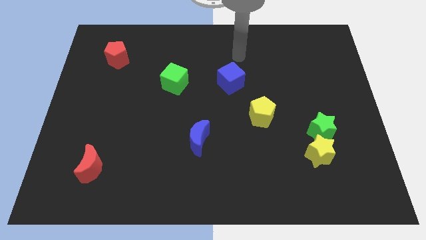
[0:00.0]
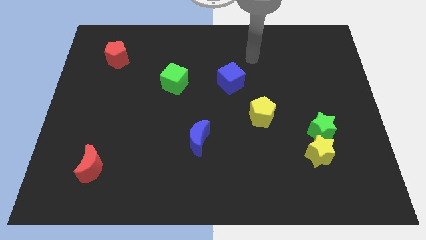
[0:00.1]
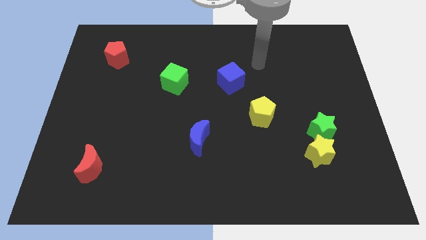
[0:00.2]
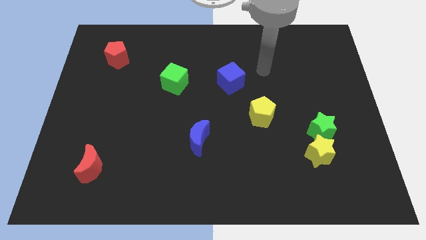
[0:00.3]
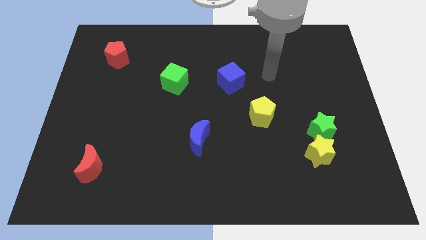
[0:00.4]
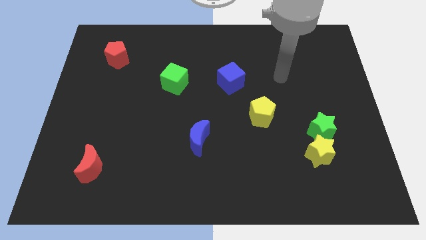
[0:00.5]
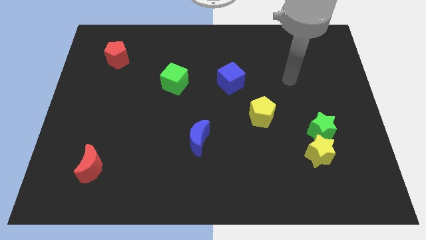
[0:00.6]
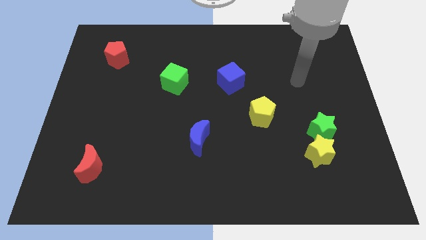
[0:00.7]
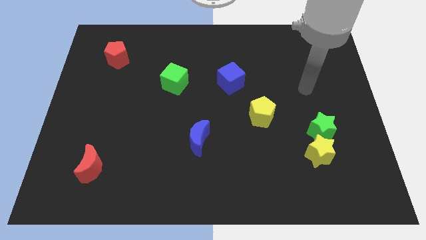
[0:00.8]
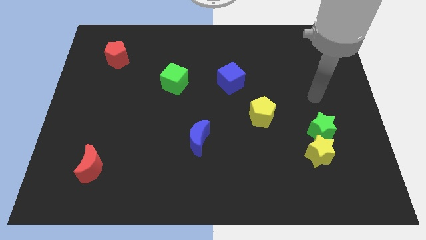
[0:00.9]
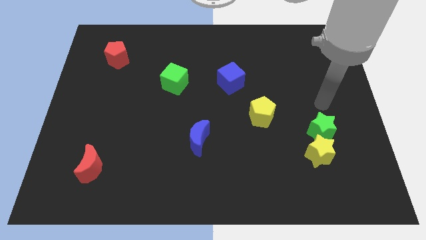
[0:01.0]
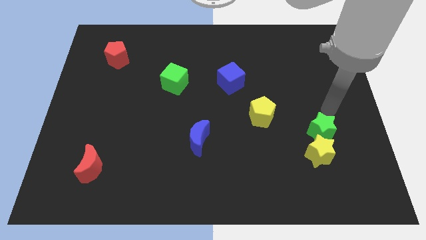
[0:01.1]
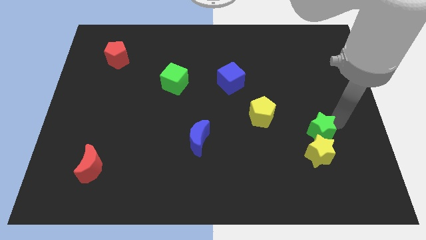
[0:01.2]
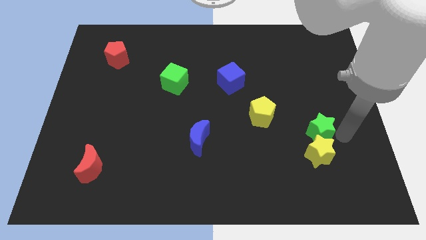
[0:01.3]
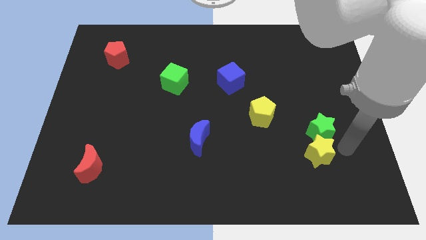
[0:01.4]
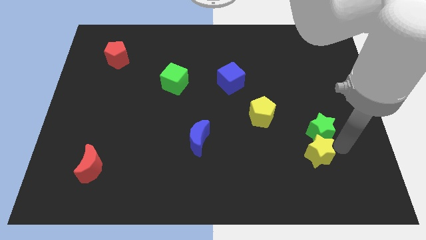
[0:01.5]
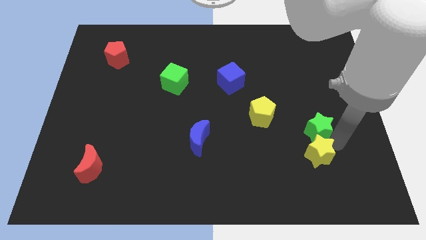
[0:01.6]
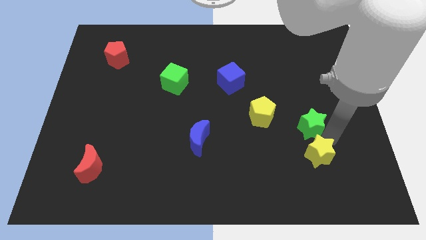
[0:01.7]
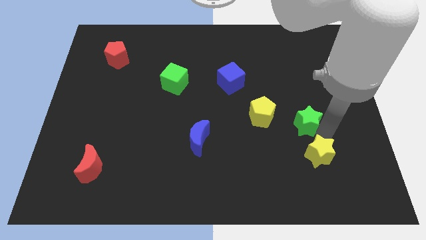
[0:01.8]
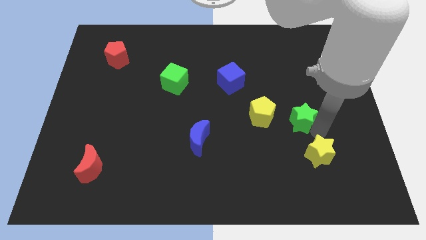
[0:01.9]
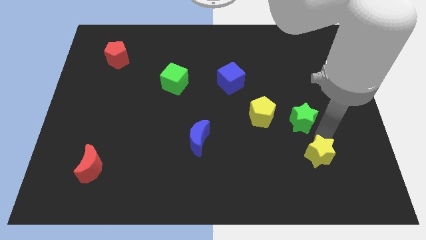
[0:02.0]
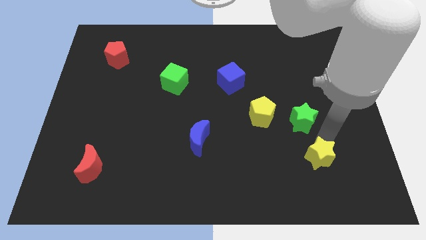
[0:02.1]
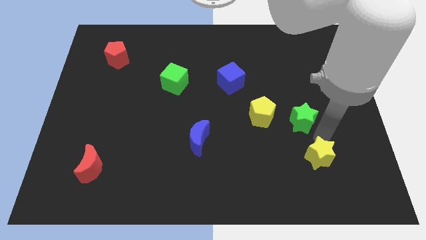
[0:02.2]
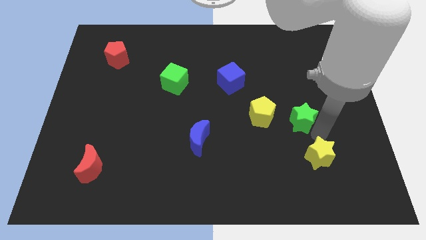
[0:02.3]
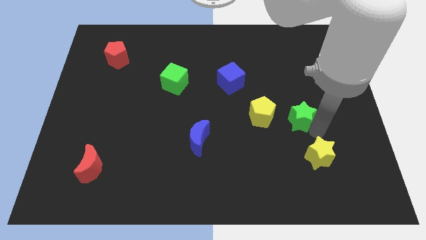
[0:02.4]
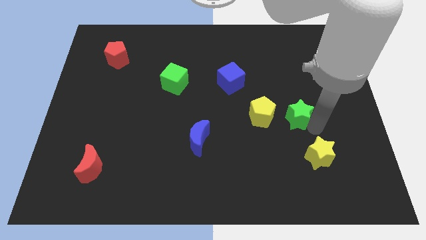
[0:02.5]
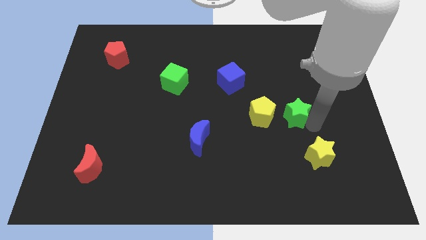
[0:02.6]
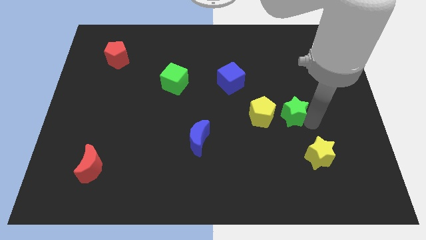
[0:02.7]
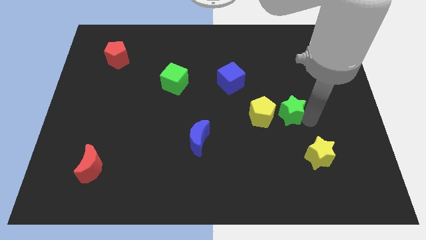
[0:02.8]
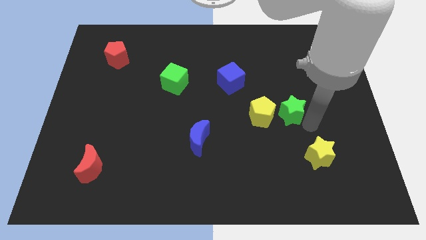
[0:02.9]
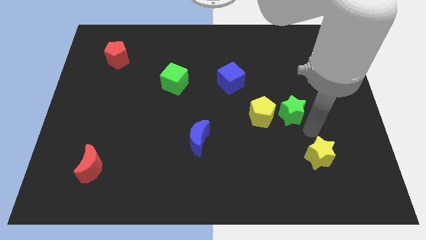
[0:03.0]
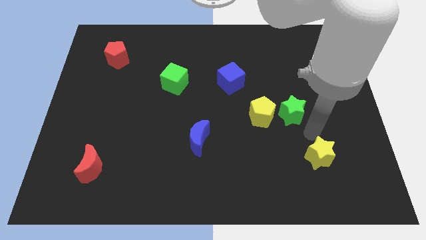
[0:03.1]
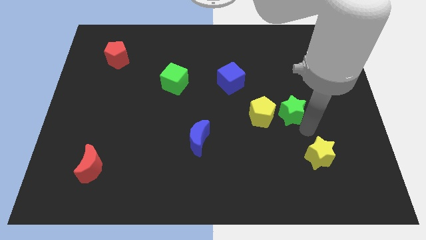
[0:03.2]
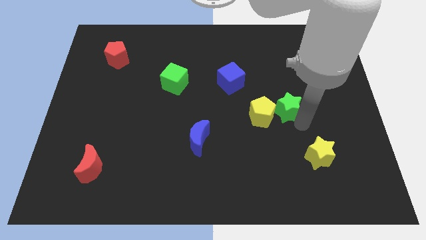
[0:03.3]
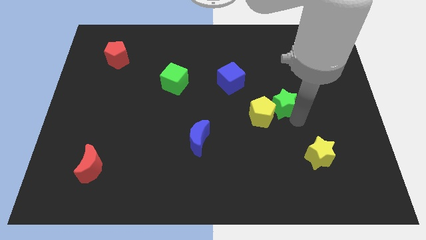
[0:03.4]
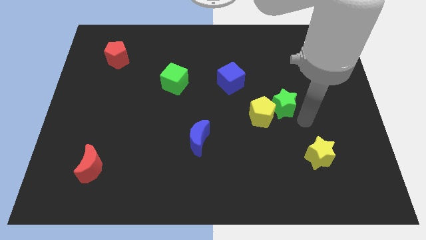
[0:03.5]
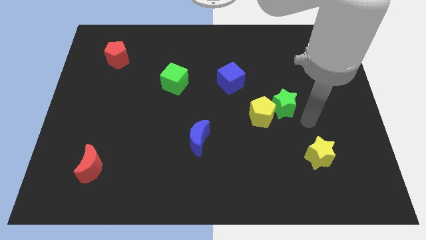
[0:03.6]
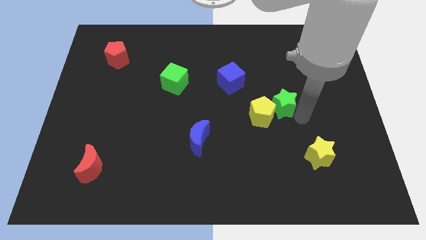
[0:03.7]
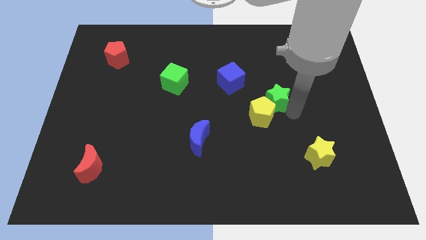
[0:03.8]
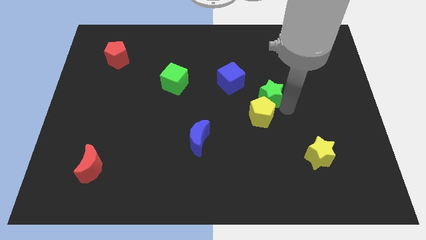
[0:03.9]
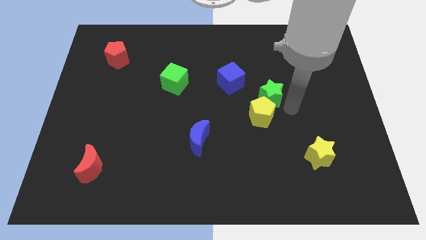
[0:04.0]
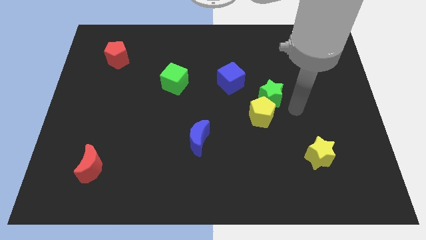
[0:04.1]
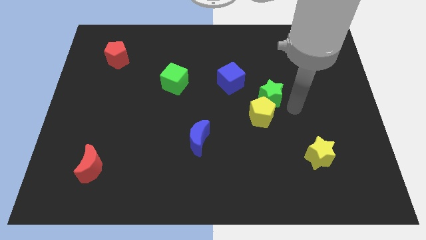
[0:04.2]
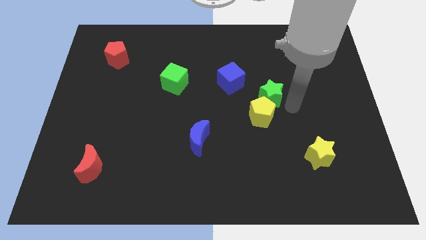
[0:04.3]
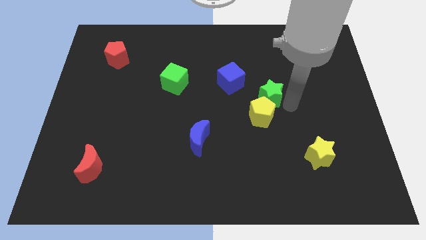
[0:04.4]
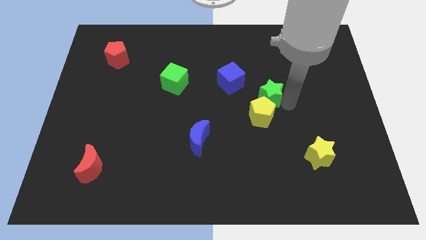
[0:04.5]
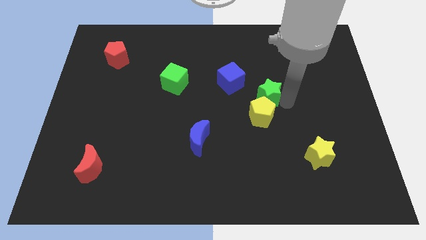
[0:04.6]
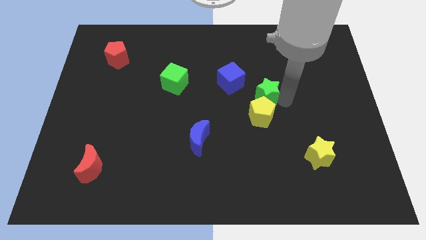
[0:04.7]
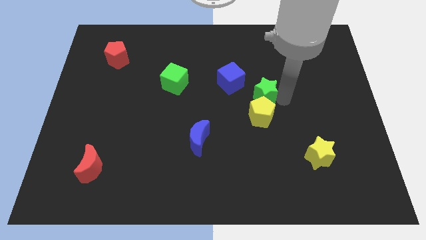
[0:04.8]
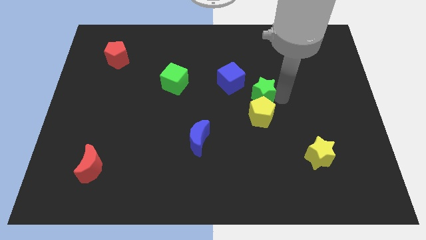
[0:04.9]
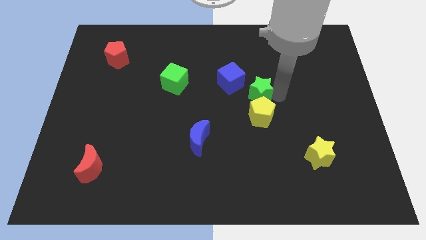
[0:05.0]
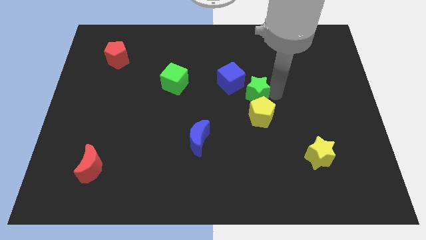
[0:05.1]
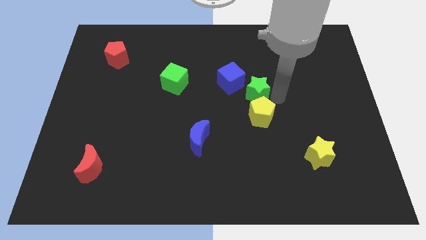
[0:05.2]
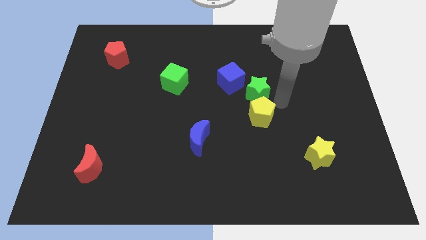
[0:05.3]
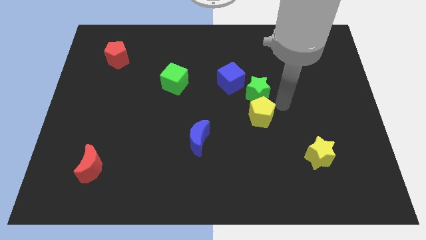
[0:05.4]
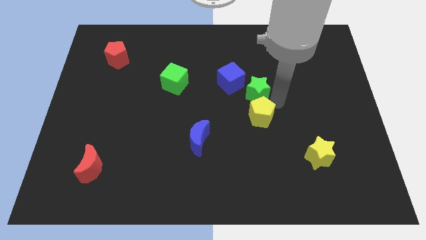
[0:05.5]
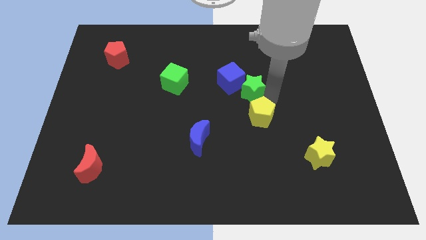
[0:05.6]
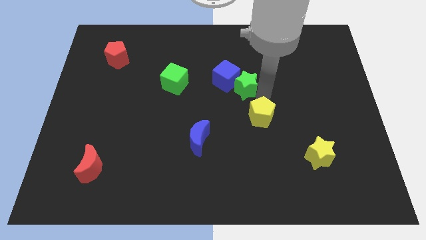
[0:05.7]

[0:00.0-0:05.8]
slide the green star close to the blue cube

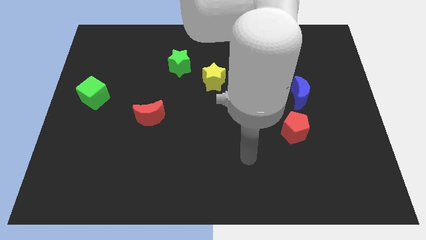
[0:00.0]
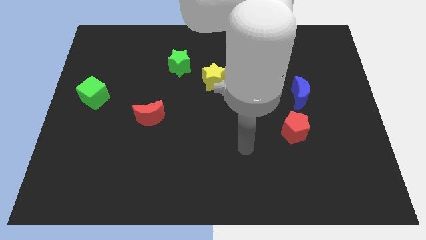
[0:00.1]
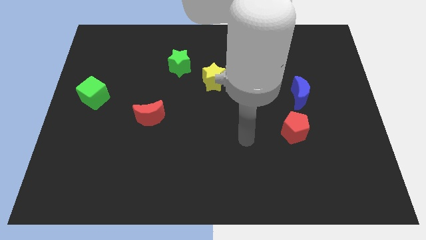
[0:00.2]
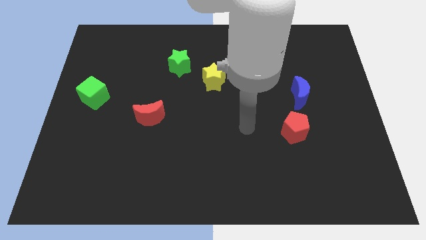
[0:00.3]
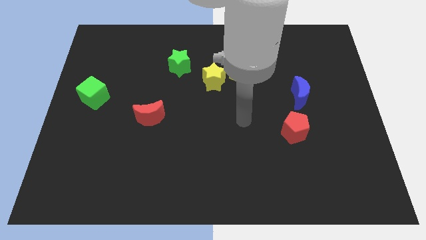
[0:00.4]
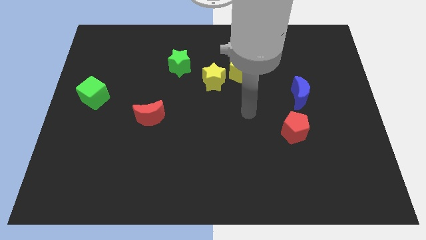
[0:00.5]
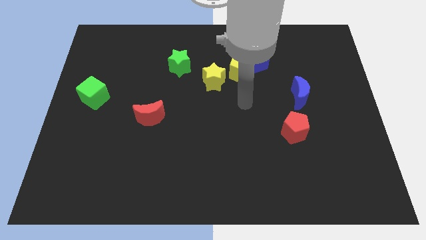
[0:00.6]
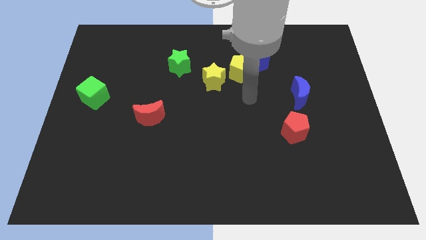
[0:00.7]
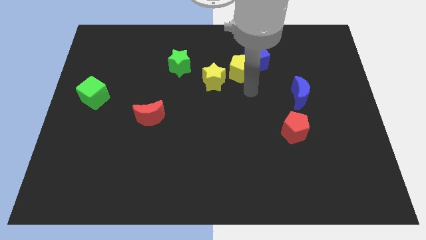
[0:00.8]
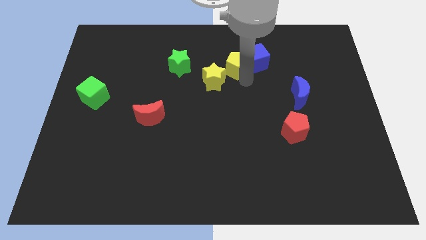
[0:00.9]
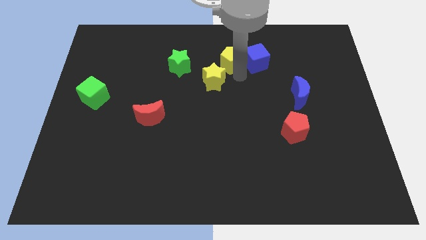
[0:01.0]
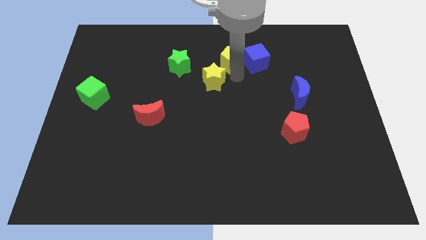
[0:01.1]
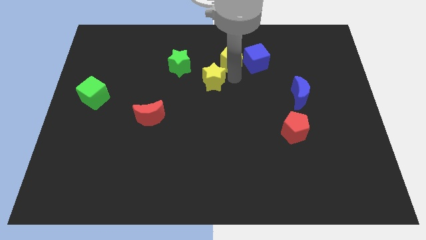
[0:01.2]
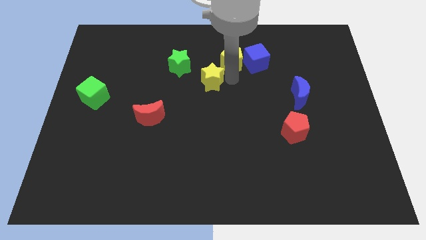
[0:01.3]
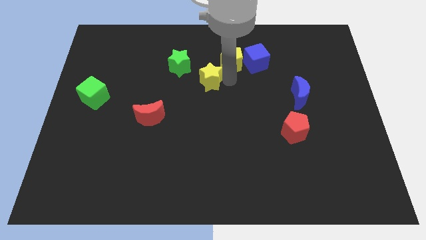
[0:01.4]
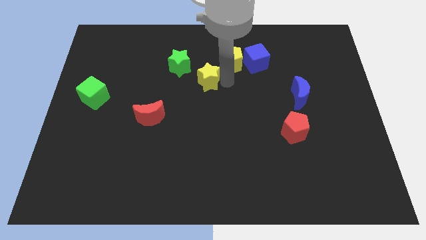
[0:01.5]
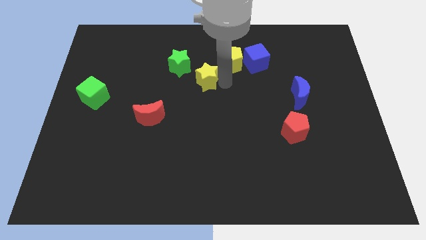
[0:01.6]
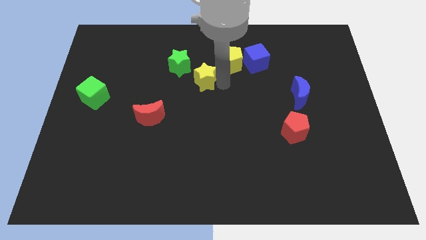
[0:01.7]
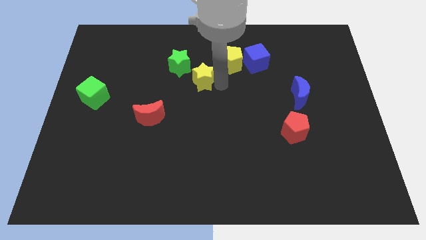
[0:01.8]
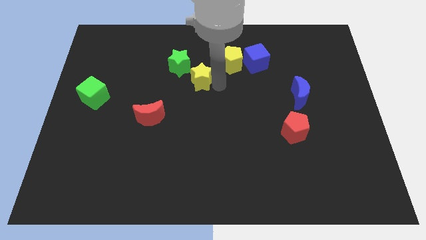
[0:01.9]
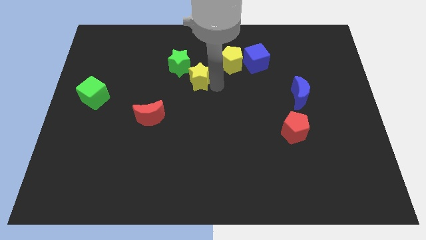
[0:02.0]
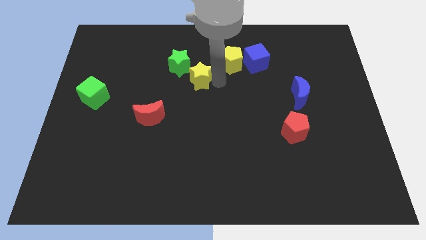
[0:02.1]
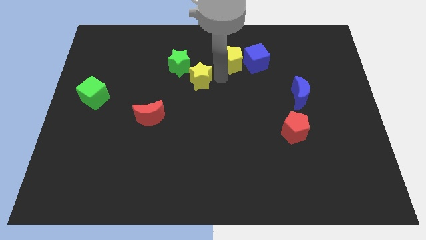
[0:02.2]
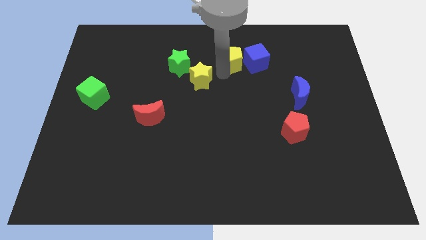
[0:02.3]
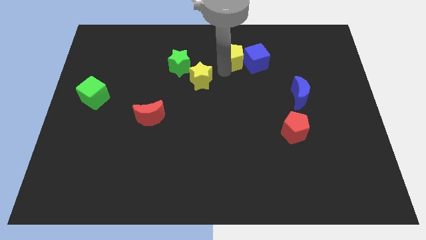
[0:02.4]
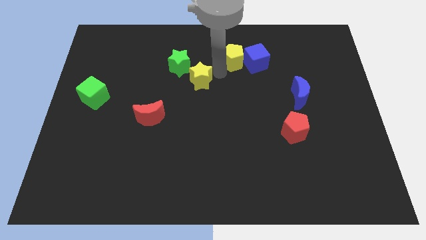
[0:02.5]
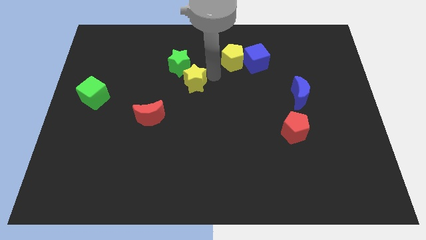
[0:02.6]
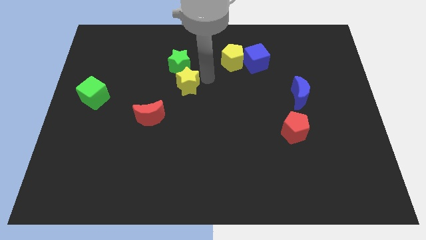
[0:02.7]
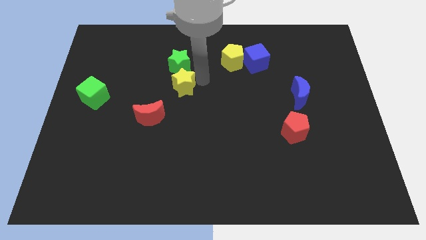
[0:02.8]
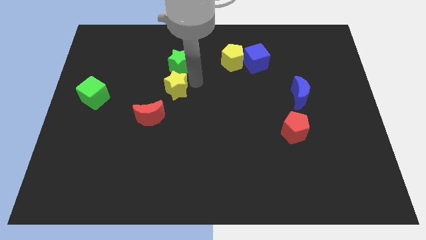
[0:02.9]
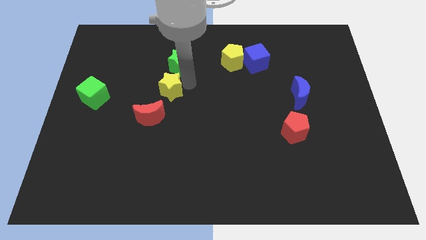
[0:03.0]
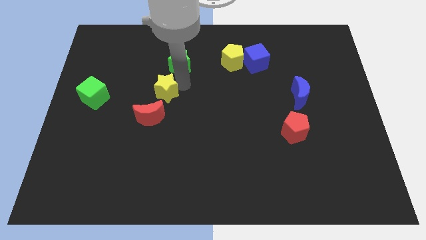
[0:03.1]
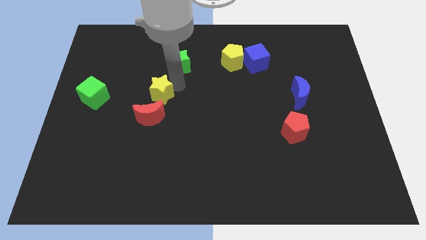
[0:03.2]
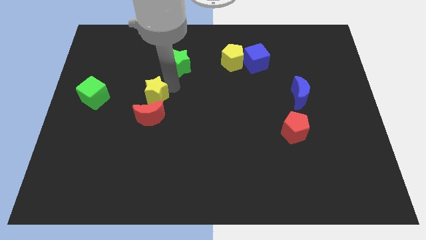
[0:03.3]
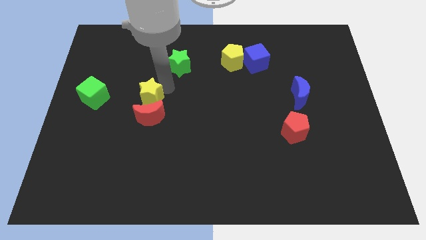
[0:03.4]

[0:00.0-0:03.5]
move the yellow star towards the red moon
